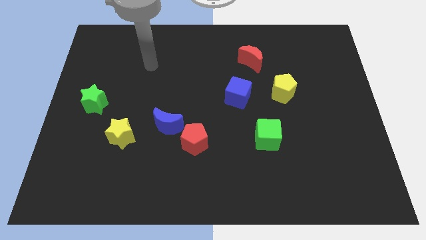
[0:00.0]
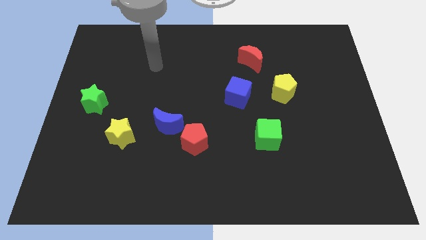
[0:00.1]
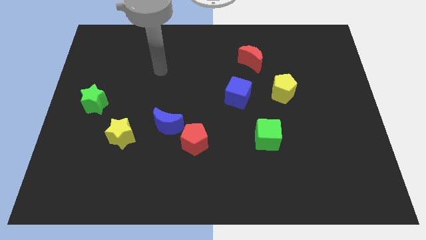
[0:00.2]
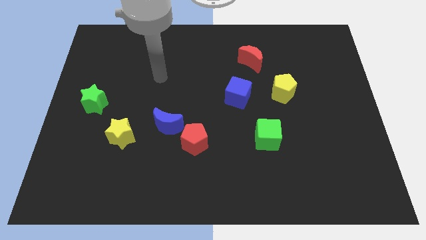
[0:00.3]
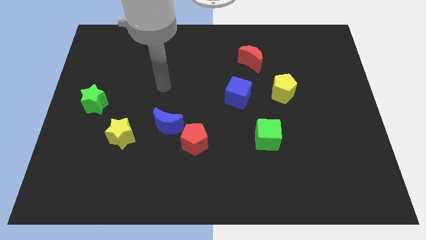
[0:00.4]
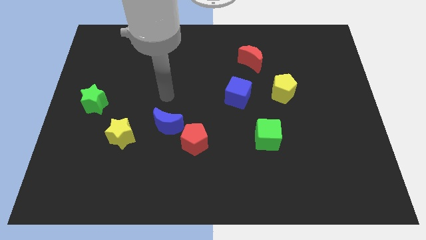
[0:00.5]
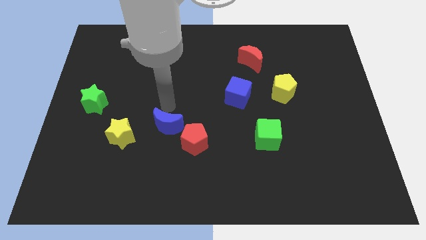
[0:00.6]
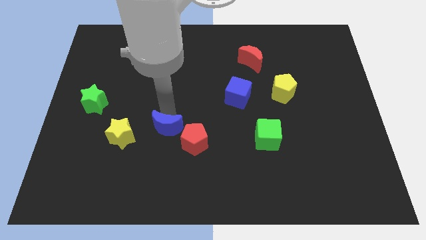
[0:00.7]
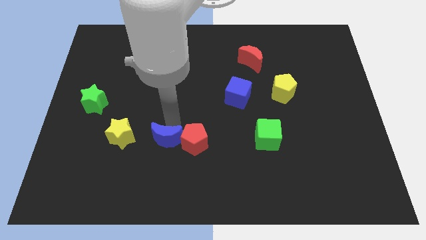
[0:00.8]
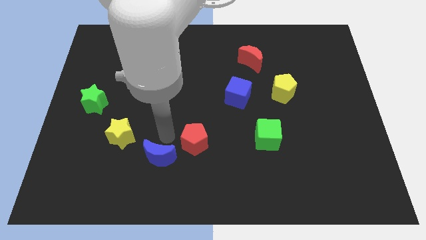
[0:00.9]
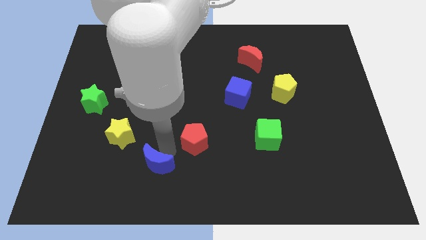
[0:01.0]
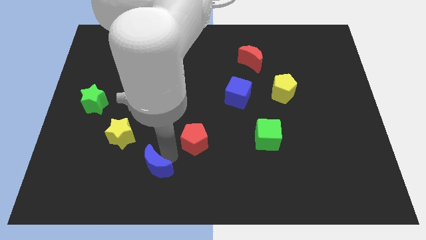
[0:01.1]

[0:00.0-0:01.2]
pull the red pentagon apart from the blue moon

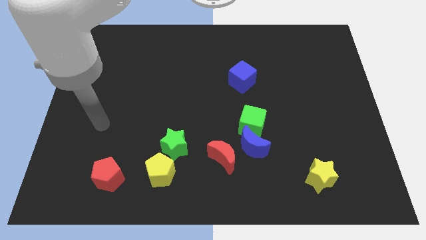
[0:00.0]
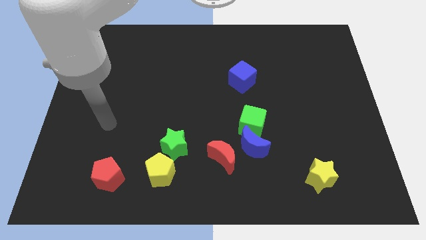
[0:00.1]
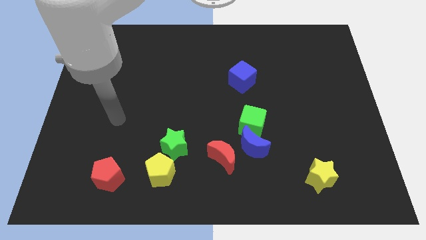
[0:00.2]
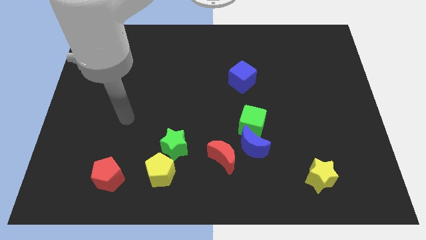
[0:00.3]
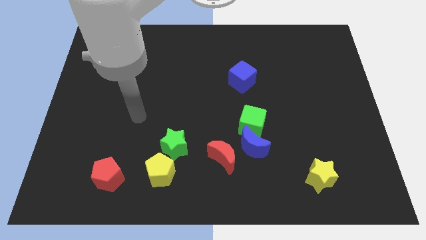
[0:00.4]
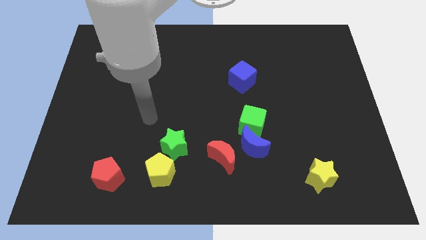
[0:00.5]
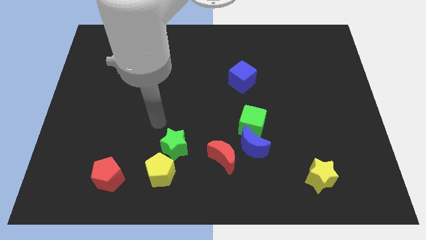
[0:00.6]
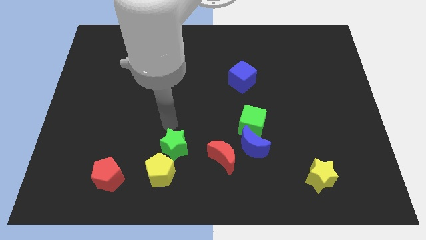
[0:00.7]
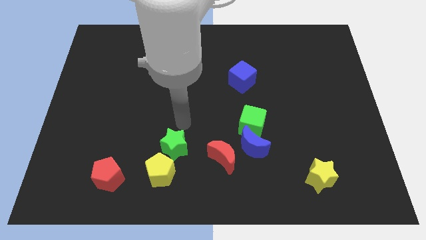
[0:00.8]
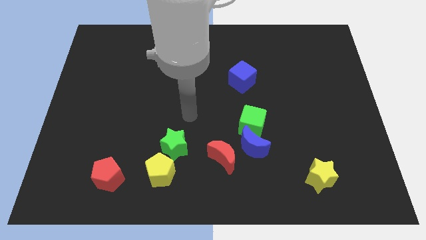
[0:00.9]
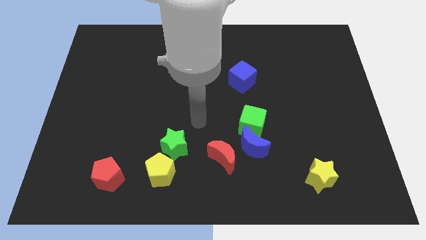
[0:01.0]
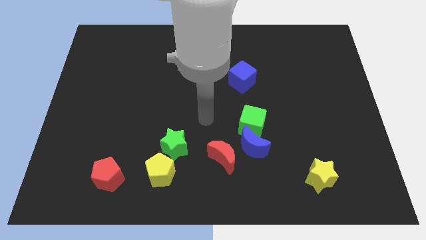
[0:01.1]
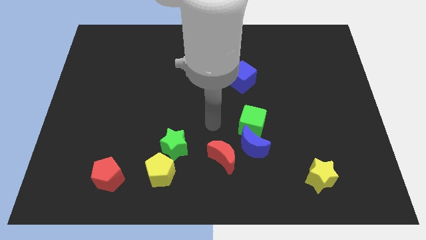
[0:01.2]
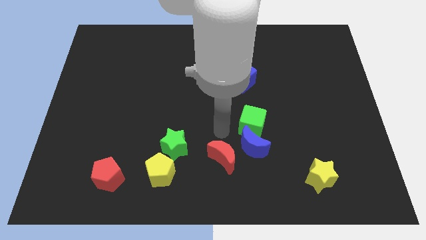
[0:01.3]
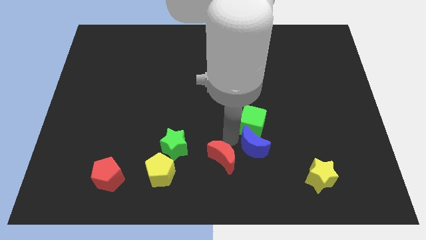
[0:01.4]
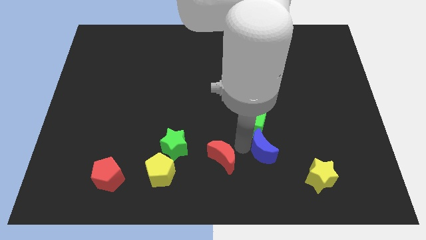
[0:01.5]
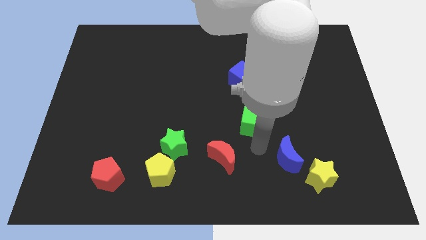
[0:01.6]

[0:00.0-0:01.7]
move the green cube away from the blue moon

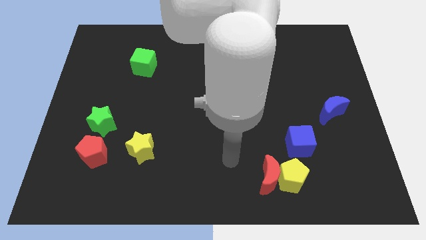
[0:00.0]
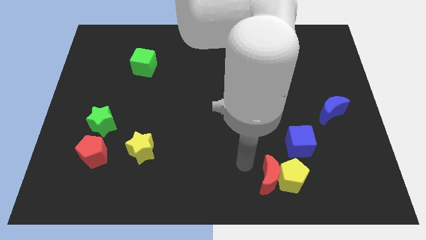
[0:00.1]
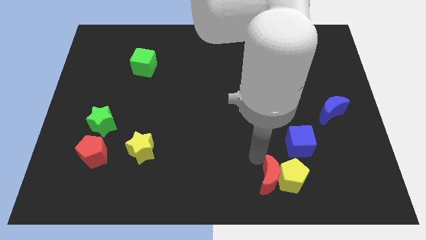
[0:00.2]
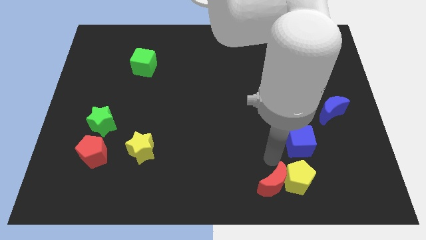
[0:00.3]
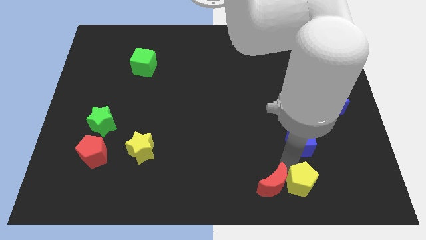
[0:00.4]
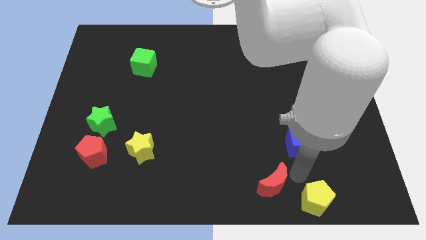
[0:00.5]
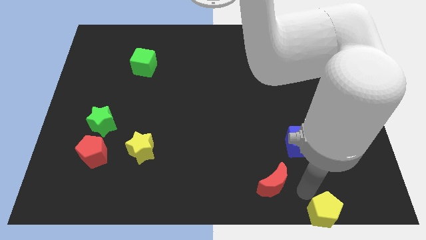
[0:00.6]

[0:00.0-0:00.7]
separate the red moon from the yellow pentagon

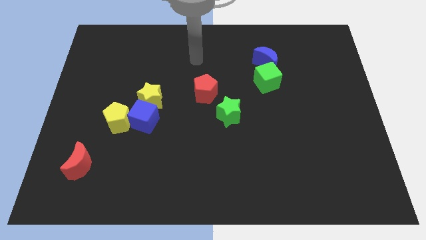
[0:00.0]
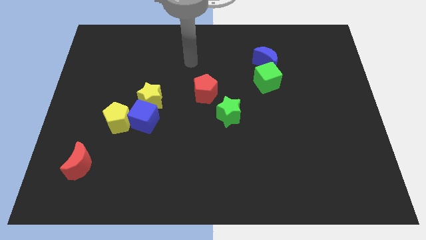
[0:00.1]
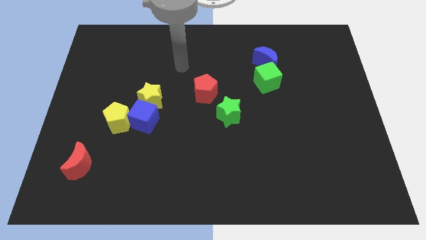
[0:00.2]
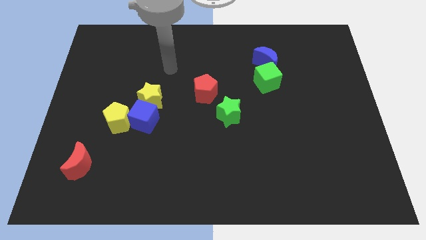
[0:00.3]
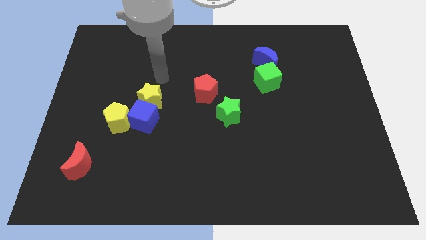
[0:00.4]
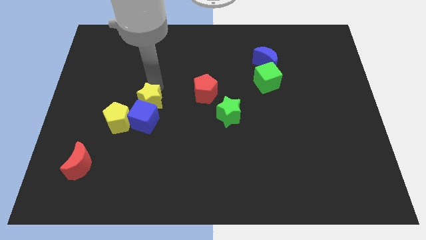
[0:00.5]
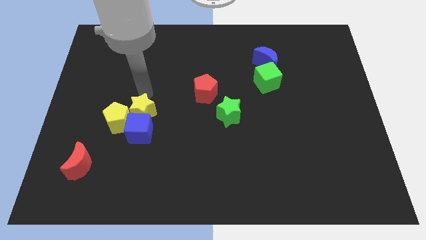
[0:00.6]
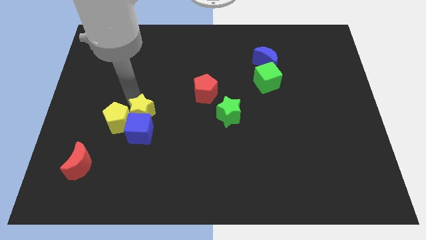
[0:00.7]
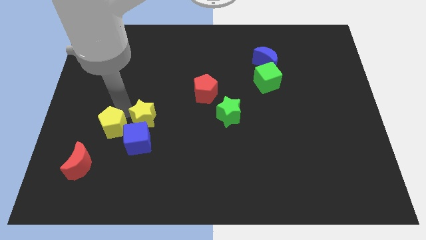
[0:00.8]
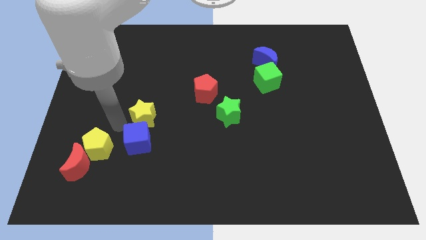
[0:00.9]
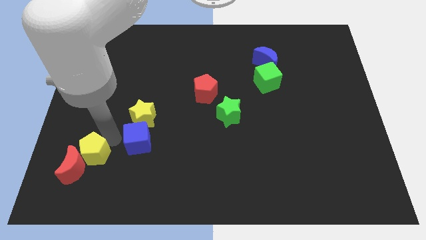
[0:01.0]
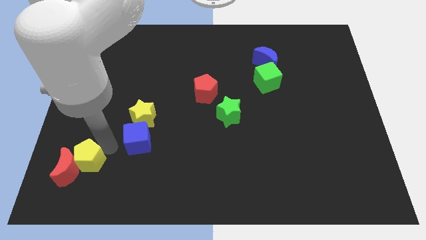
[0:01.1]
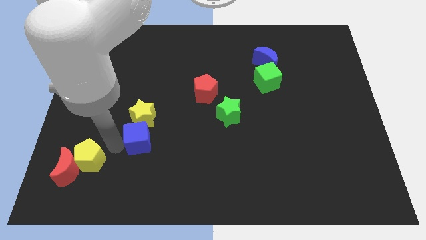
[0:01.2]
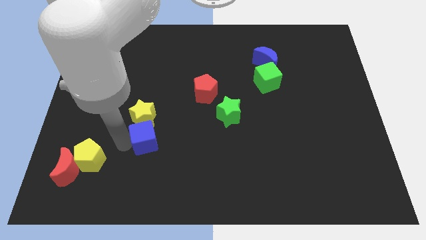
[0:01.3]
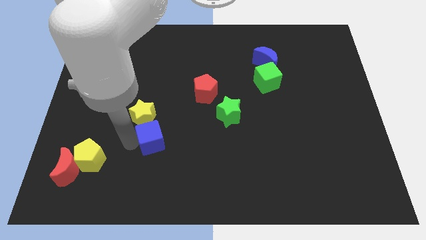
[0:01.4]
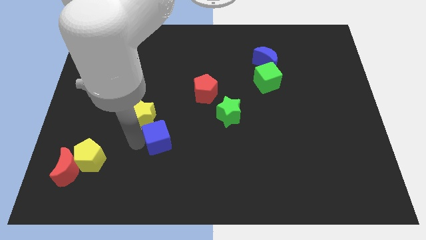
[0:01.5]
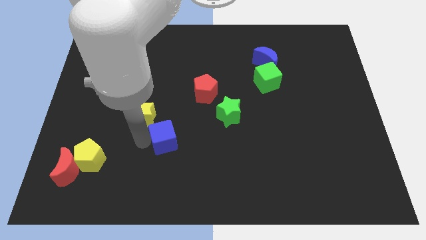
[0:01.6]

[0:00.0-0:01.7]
move the blue cube away from the yellow star and yellow pentagon

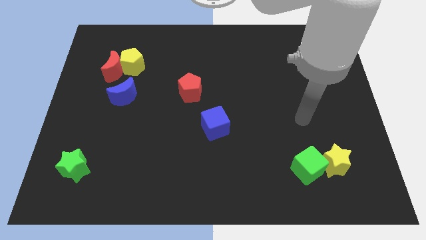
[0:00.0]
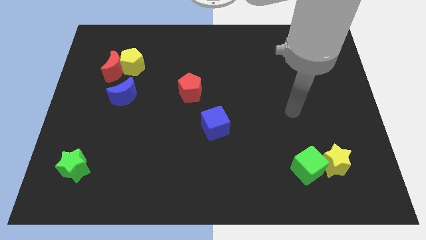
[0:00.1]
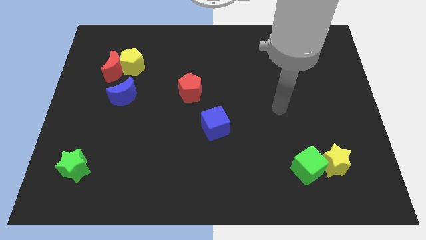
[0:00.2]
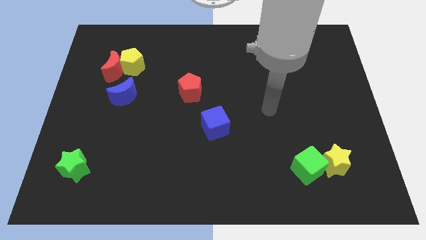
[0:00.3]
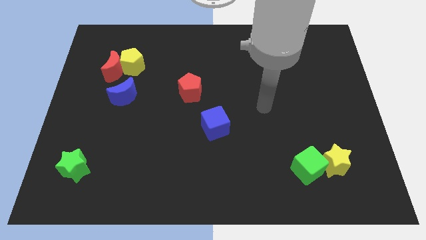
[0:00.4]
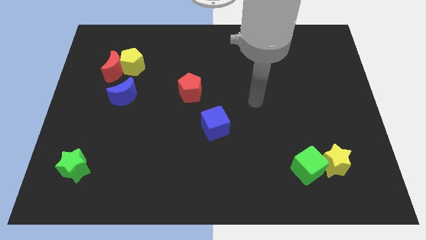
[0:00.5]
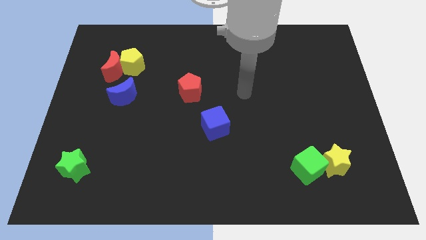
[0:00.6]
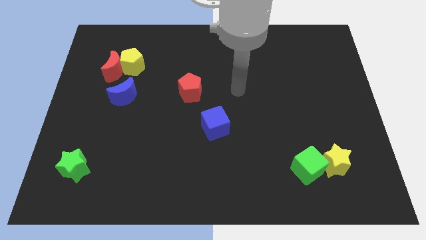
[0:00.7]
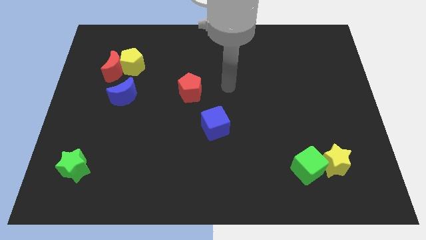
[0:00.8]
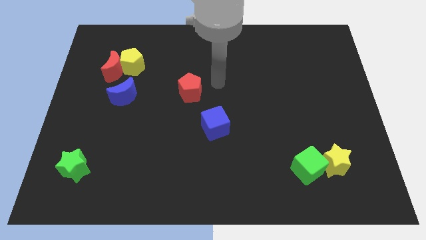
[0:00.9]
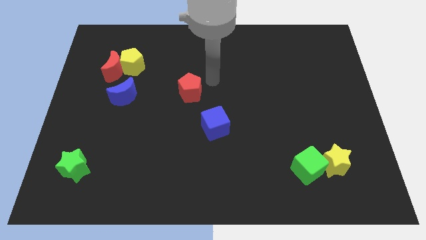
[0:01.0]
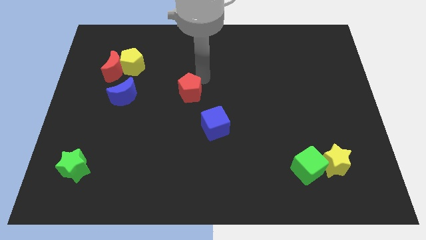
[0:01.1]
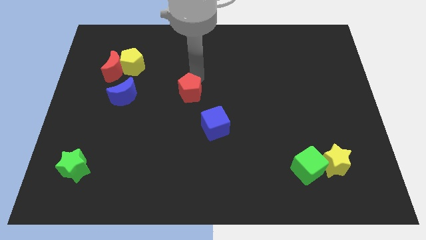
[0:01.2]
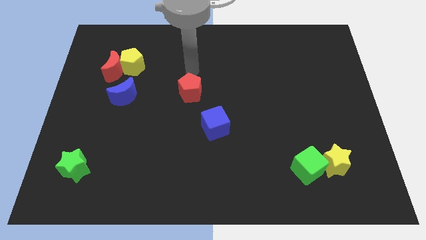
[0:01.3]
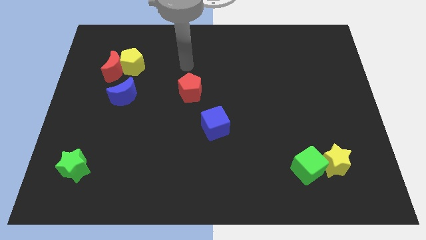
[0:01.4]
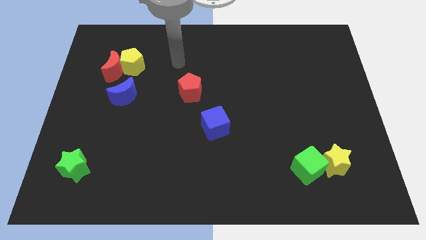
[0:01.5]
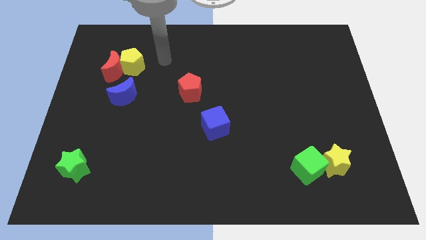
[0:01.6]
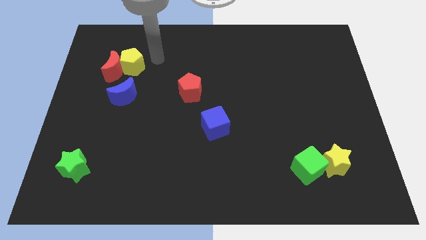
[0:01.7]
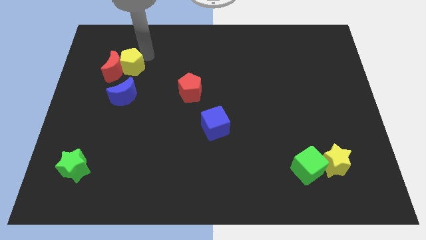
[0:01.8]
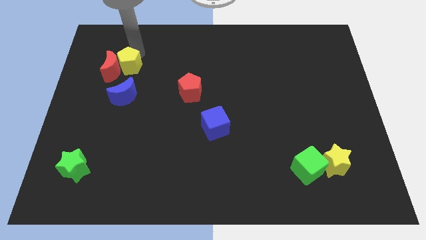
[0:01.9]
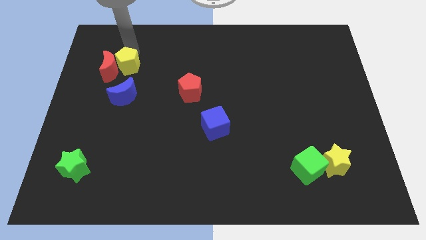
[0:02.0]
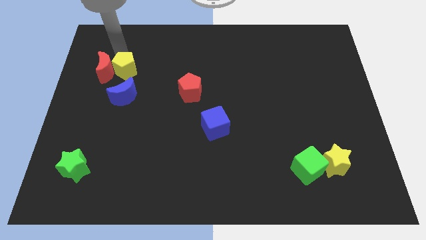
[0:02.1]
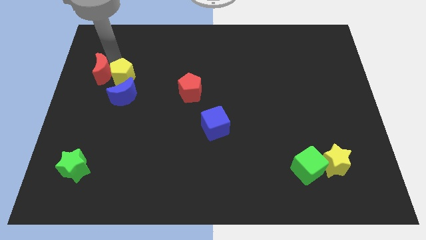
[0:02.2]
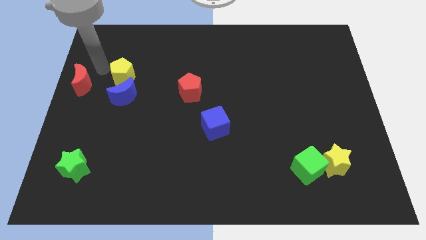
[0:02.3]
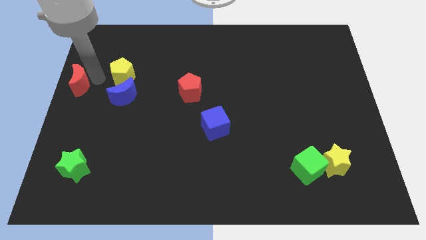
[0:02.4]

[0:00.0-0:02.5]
pull the yellow pentagon apart from the red moon

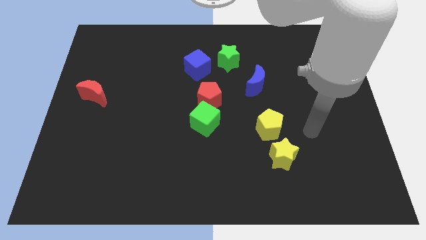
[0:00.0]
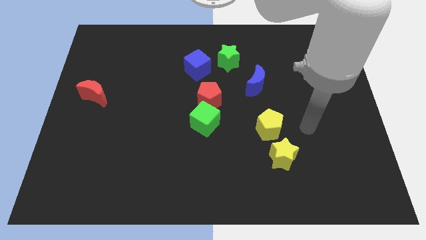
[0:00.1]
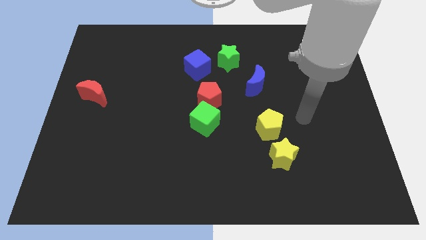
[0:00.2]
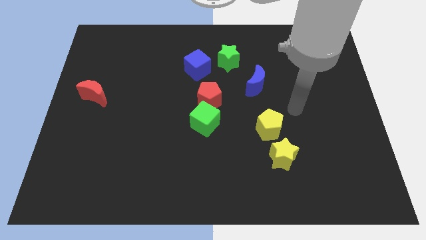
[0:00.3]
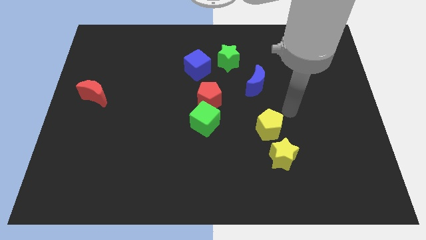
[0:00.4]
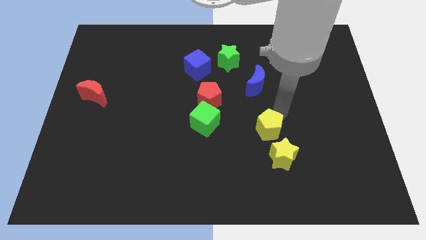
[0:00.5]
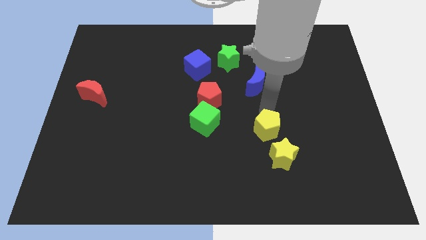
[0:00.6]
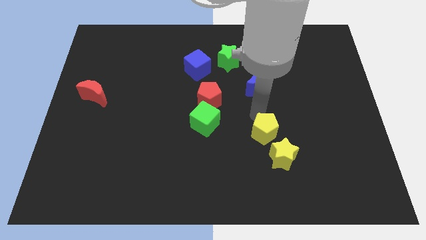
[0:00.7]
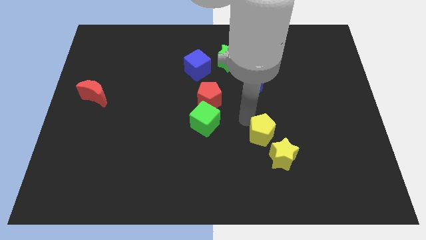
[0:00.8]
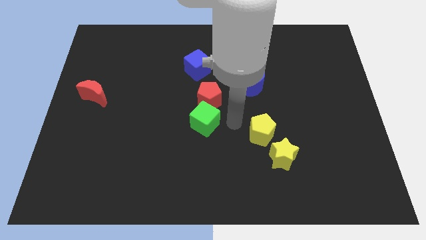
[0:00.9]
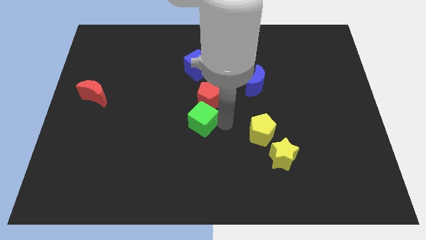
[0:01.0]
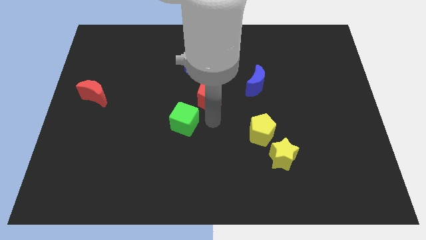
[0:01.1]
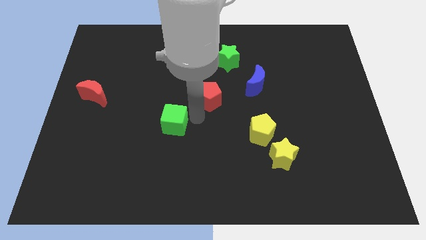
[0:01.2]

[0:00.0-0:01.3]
separate the red pentagon from the green cube

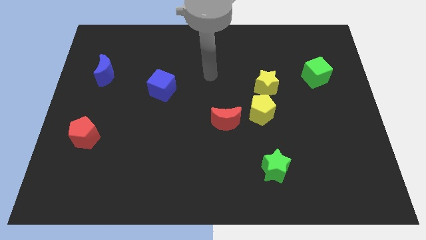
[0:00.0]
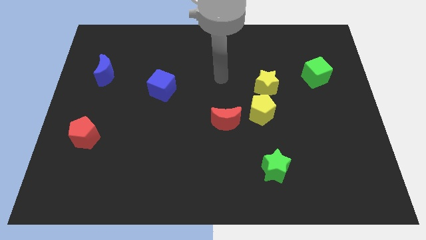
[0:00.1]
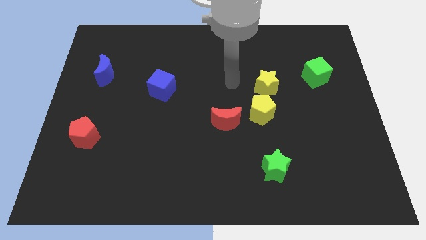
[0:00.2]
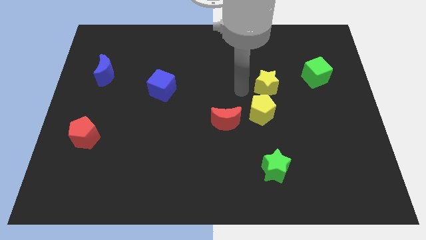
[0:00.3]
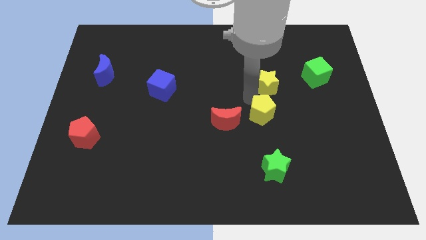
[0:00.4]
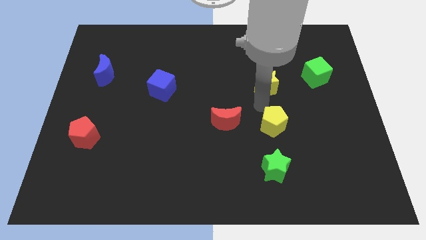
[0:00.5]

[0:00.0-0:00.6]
move the yellow star away from the yellow pentagon
